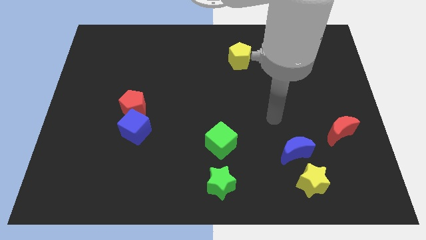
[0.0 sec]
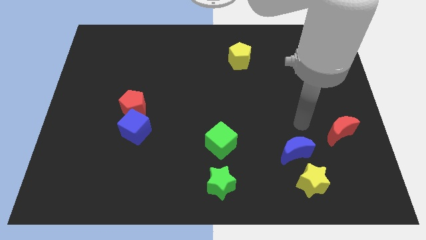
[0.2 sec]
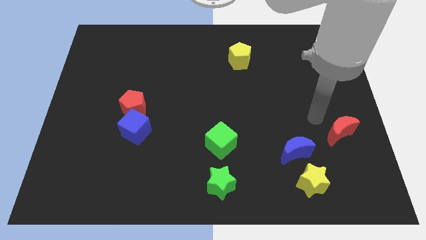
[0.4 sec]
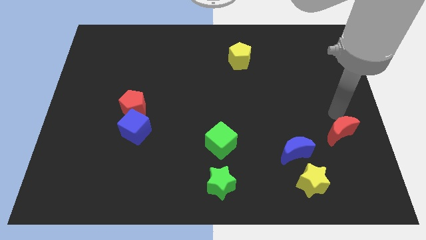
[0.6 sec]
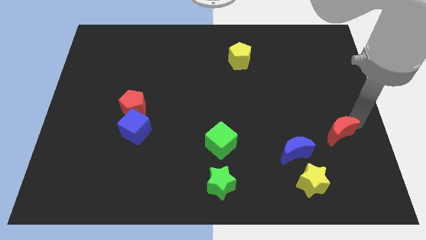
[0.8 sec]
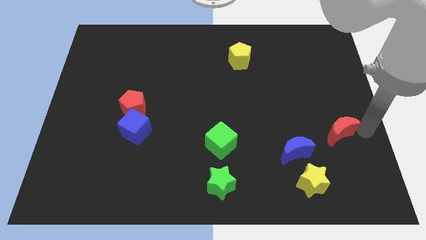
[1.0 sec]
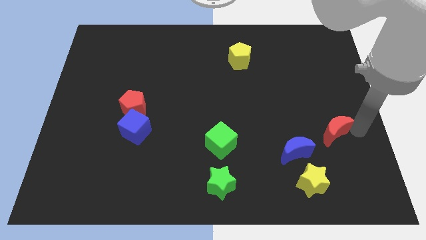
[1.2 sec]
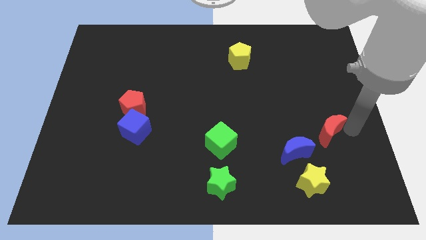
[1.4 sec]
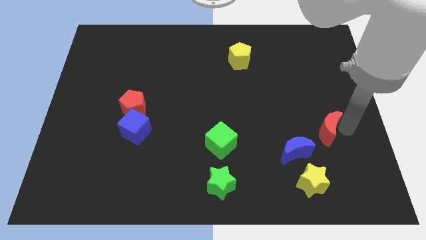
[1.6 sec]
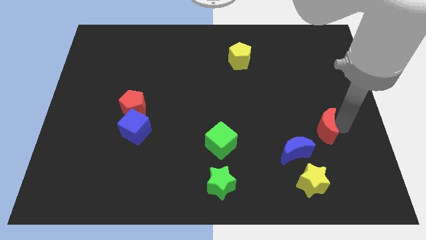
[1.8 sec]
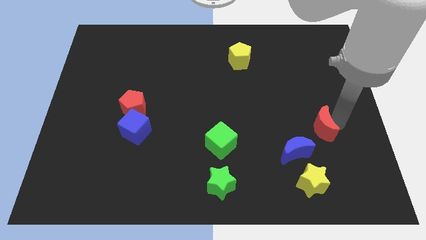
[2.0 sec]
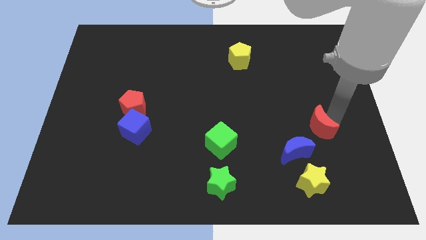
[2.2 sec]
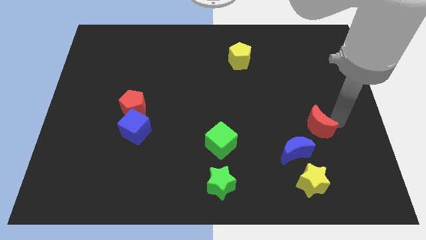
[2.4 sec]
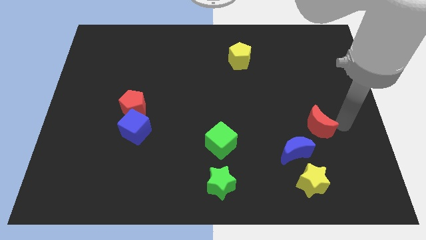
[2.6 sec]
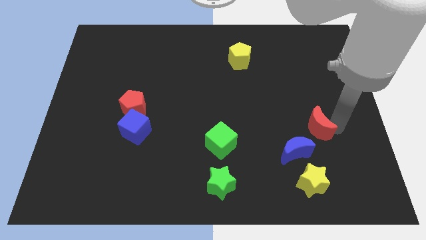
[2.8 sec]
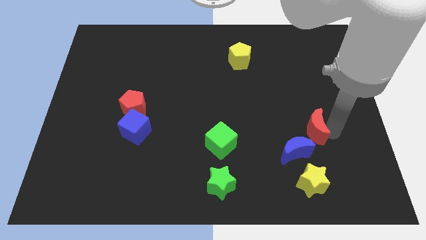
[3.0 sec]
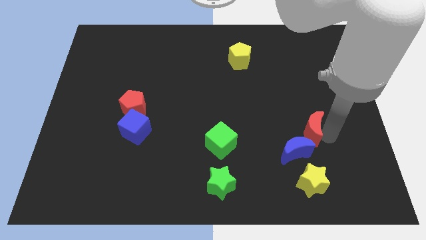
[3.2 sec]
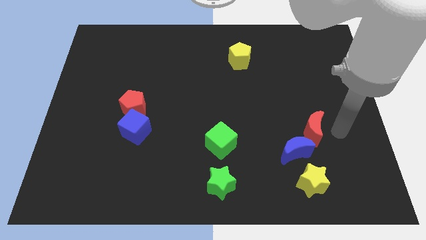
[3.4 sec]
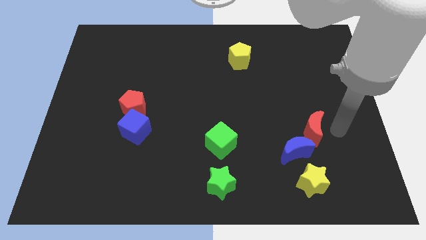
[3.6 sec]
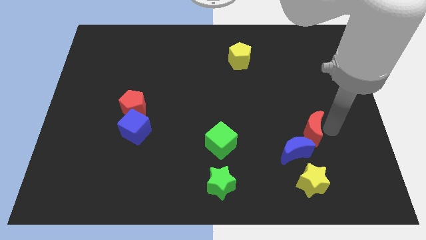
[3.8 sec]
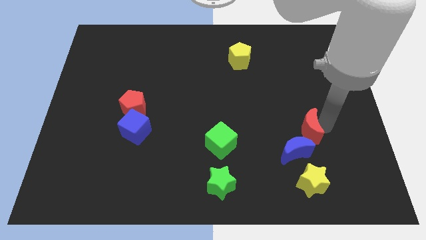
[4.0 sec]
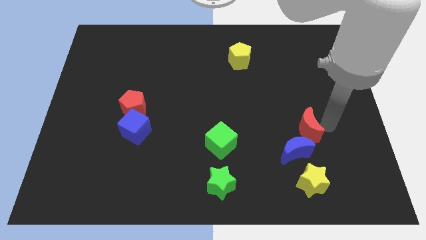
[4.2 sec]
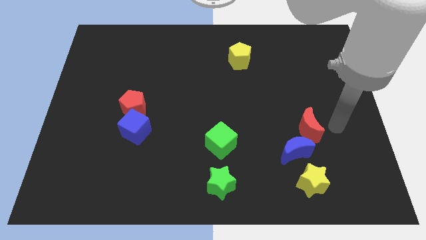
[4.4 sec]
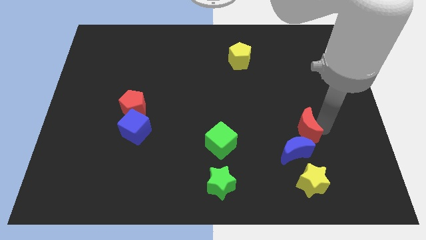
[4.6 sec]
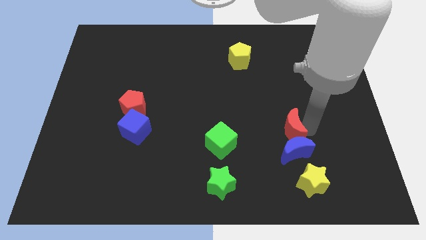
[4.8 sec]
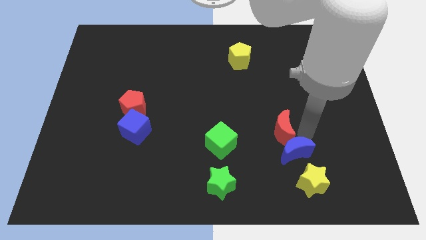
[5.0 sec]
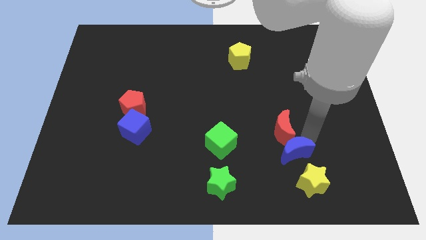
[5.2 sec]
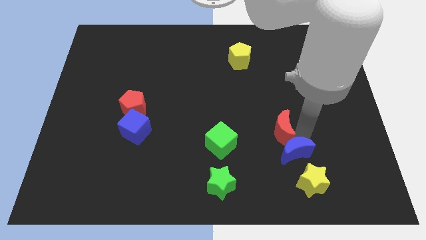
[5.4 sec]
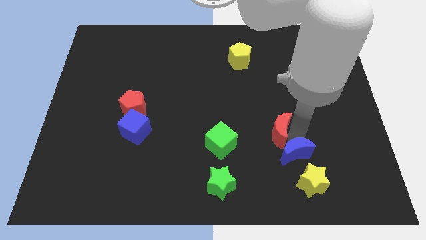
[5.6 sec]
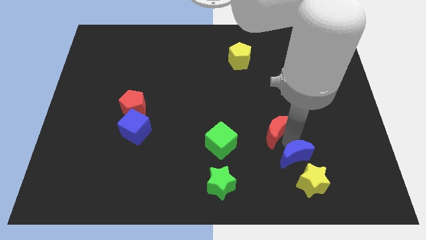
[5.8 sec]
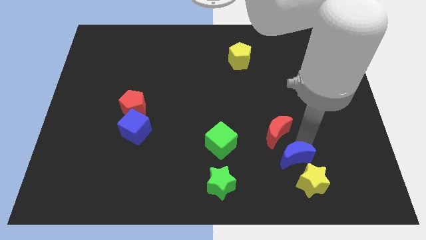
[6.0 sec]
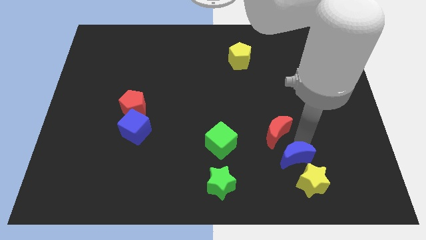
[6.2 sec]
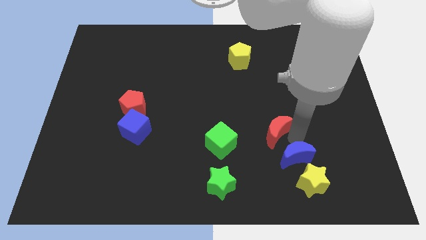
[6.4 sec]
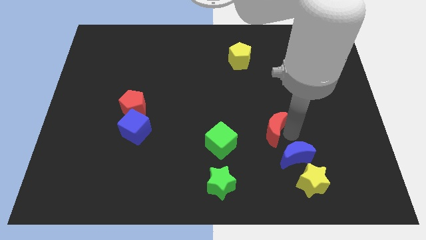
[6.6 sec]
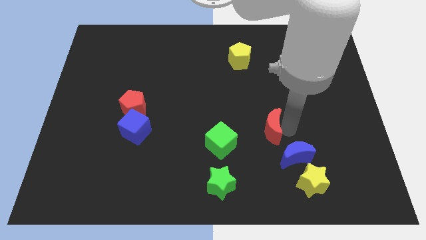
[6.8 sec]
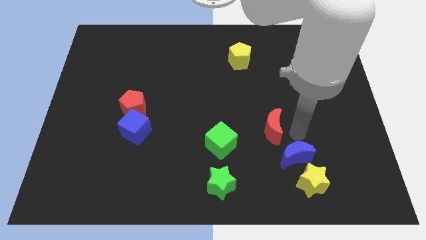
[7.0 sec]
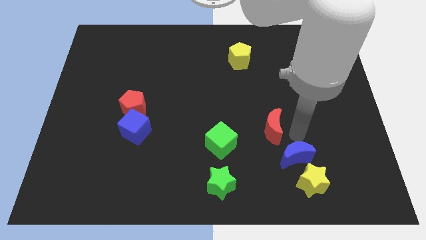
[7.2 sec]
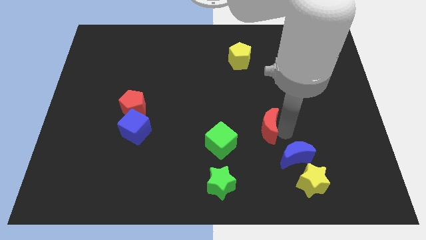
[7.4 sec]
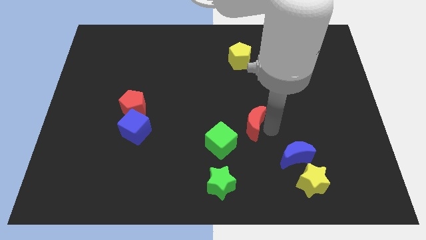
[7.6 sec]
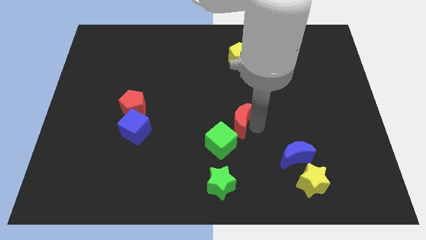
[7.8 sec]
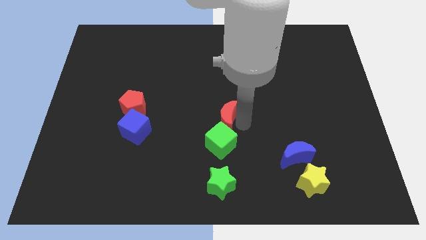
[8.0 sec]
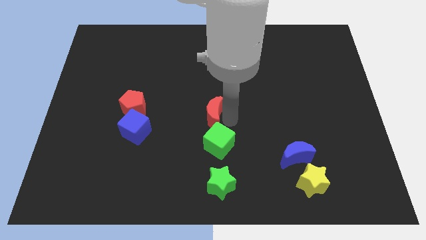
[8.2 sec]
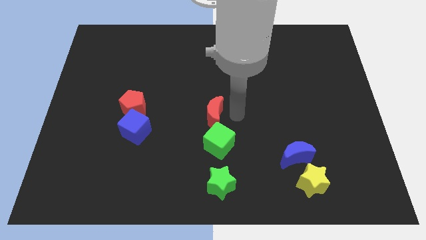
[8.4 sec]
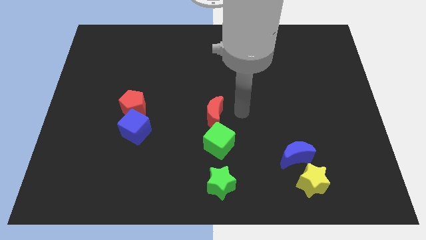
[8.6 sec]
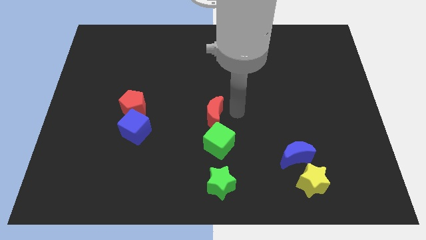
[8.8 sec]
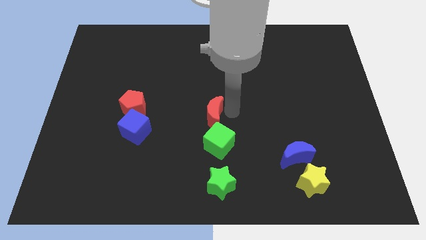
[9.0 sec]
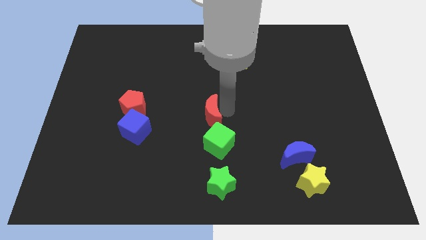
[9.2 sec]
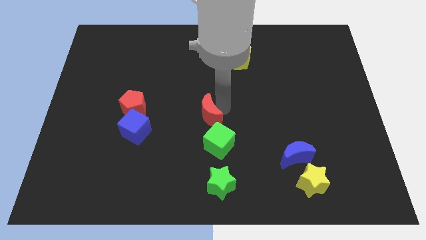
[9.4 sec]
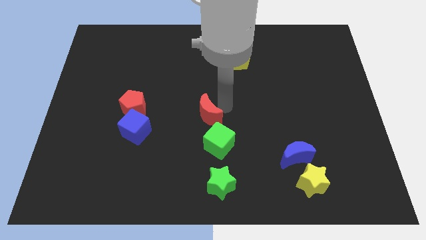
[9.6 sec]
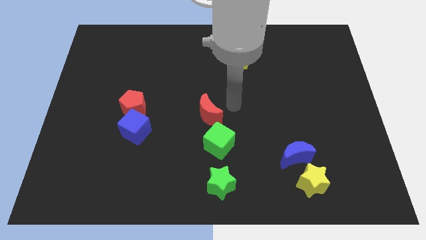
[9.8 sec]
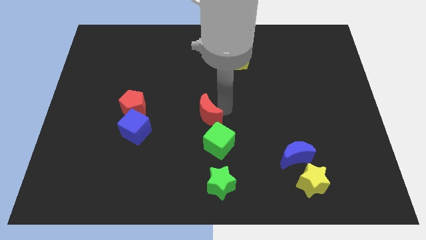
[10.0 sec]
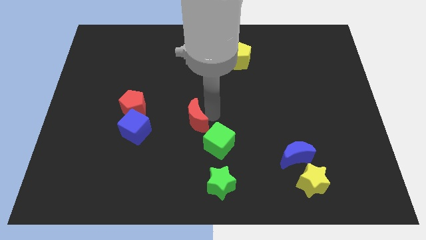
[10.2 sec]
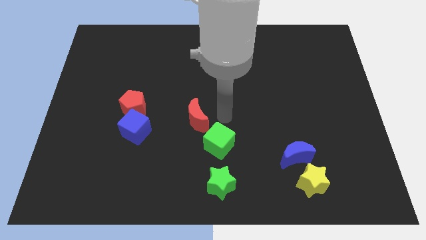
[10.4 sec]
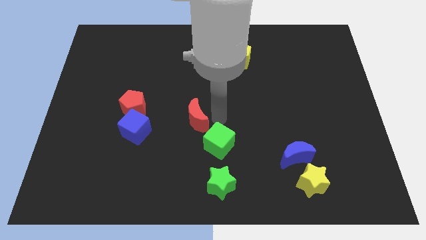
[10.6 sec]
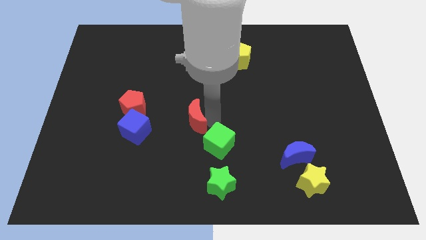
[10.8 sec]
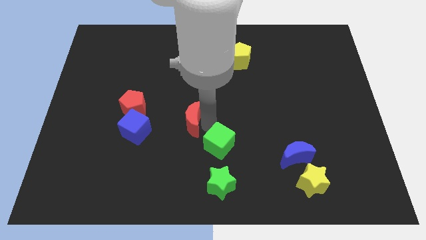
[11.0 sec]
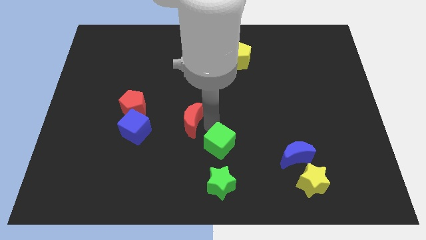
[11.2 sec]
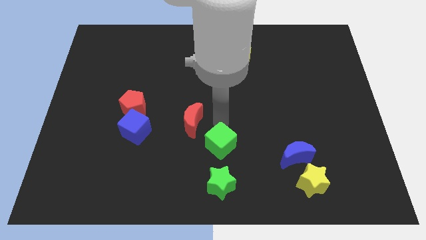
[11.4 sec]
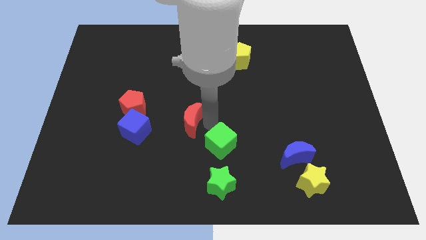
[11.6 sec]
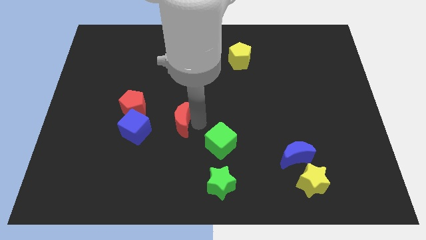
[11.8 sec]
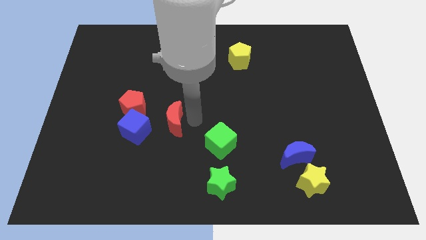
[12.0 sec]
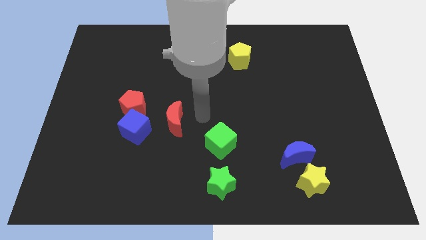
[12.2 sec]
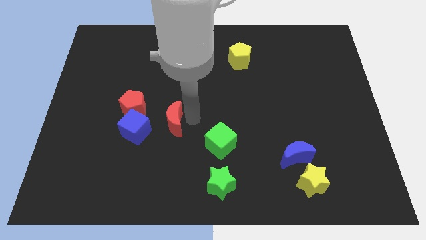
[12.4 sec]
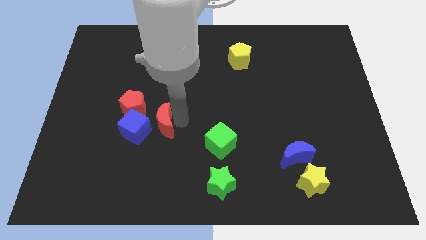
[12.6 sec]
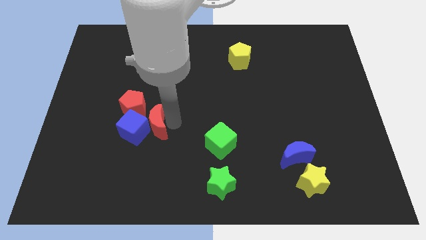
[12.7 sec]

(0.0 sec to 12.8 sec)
push the red moon towards the blue cube

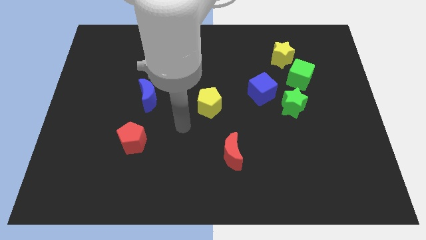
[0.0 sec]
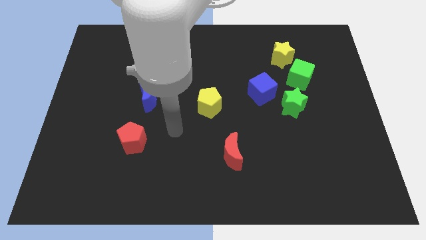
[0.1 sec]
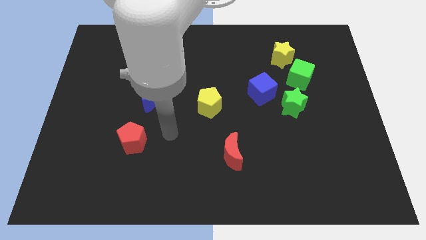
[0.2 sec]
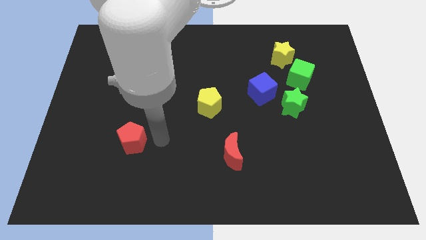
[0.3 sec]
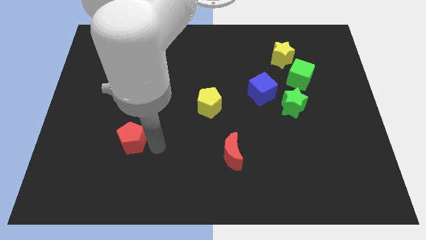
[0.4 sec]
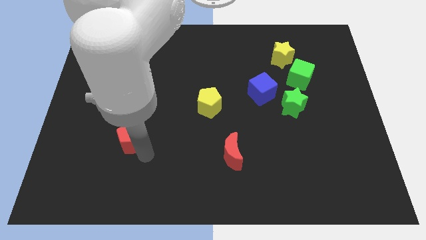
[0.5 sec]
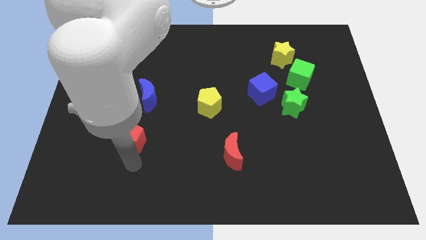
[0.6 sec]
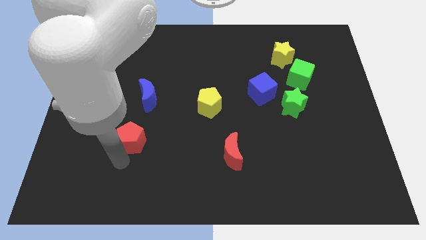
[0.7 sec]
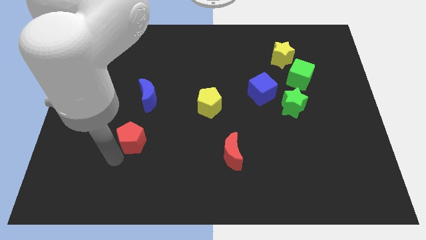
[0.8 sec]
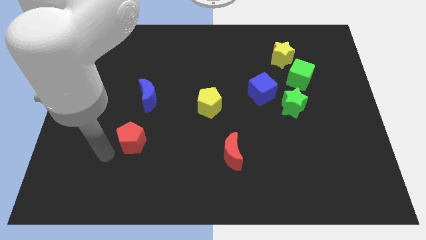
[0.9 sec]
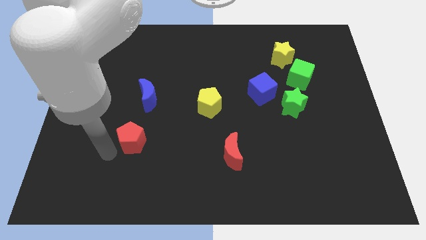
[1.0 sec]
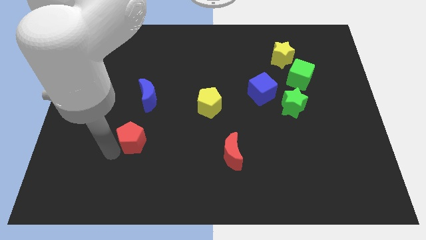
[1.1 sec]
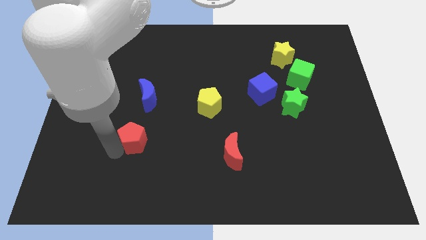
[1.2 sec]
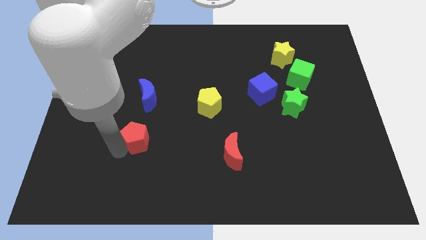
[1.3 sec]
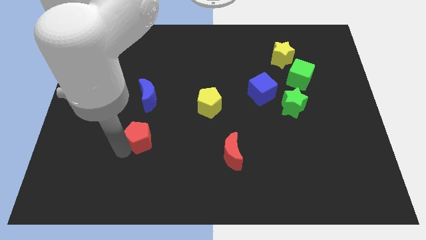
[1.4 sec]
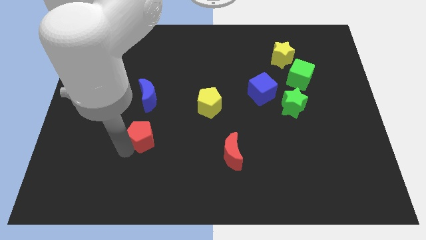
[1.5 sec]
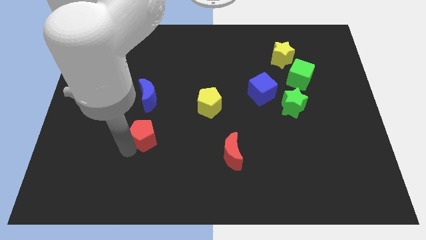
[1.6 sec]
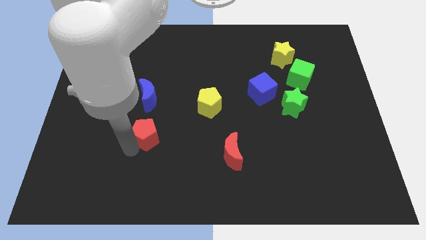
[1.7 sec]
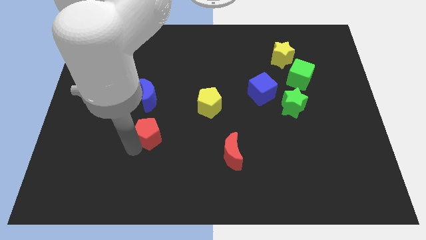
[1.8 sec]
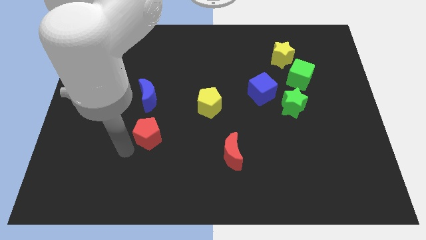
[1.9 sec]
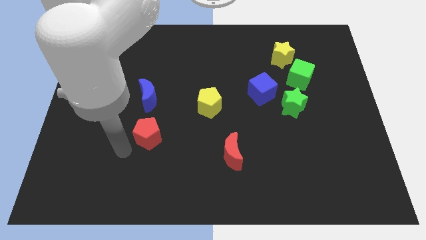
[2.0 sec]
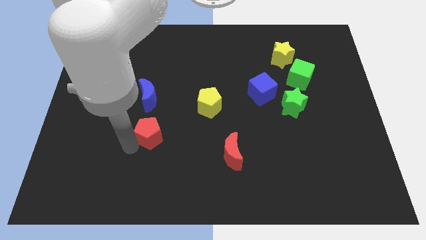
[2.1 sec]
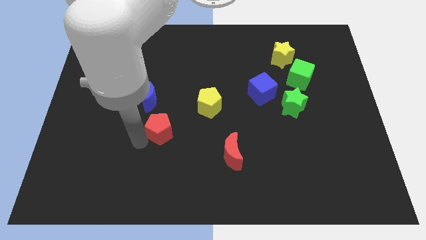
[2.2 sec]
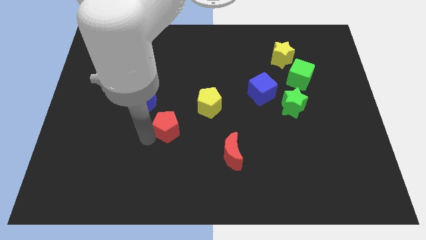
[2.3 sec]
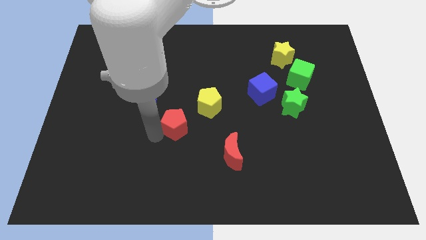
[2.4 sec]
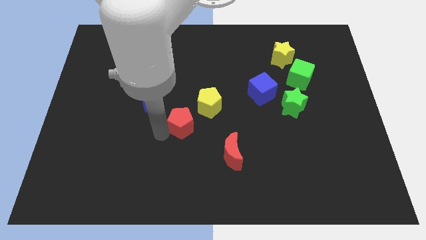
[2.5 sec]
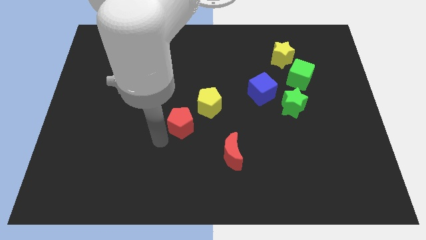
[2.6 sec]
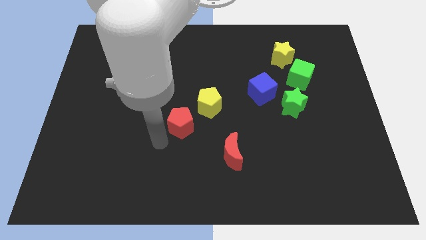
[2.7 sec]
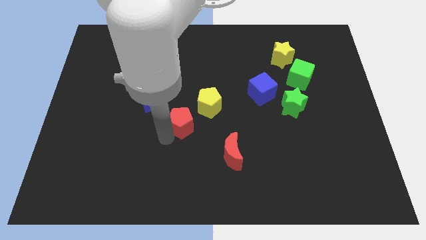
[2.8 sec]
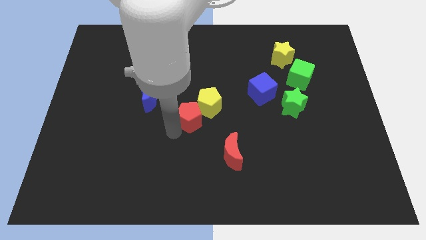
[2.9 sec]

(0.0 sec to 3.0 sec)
slide the red pentagon next to the yellow pentagon
